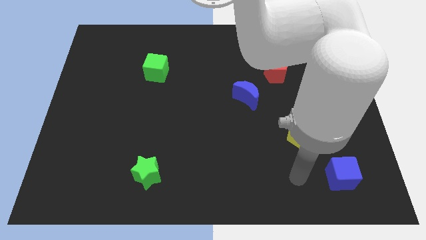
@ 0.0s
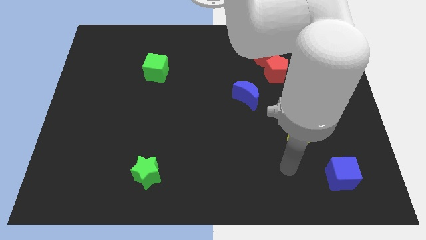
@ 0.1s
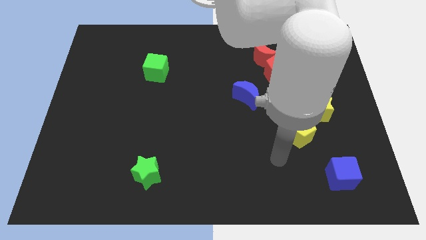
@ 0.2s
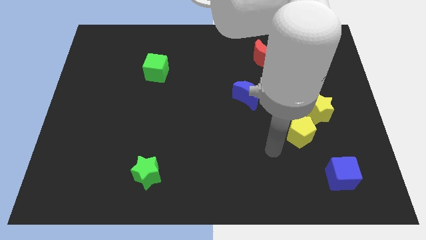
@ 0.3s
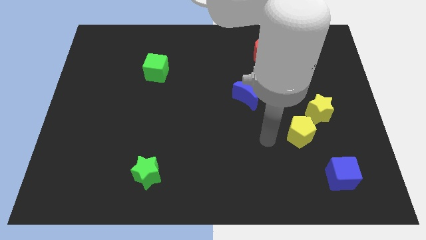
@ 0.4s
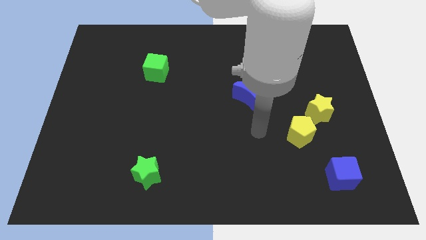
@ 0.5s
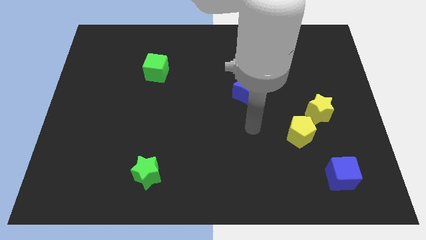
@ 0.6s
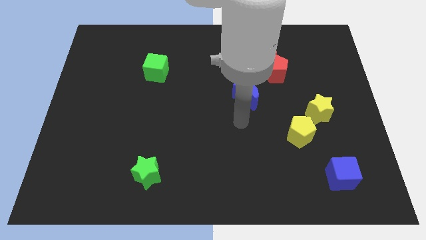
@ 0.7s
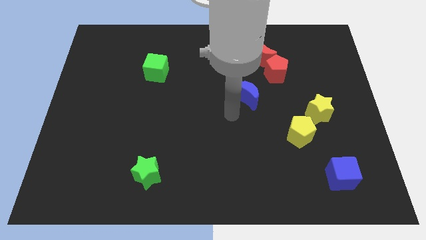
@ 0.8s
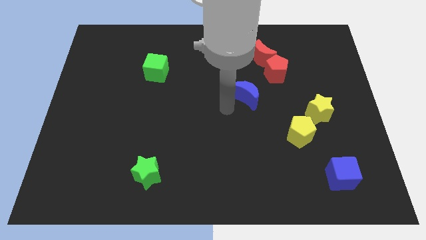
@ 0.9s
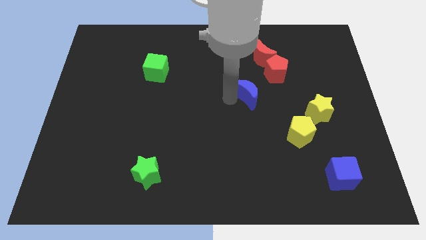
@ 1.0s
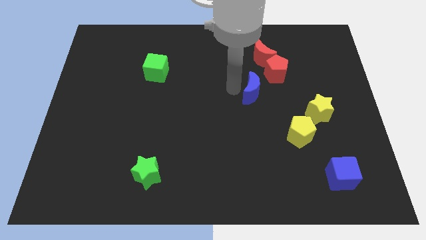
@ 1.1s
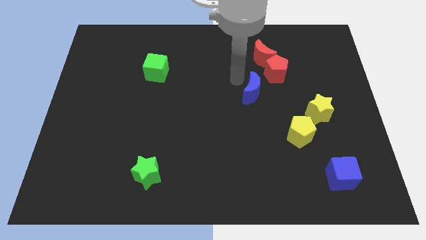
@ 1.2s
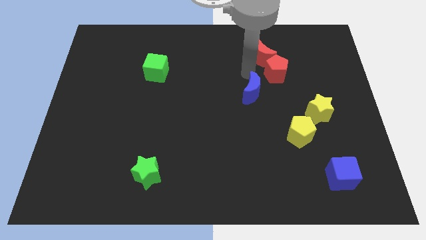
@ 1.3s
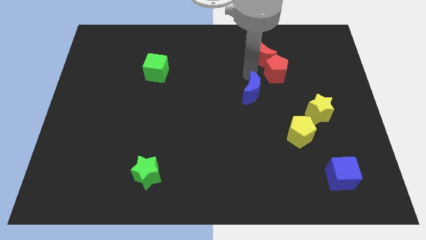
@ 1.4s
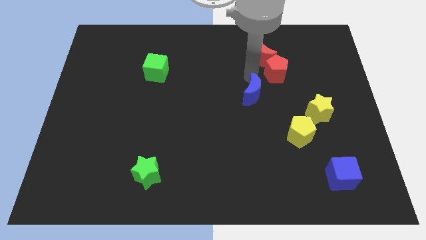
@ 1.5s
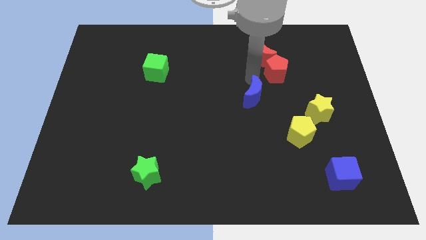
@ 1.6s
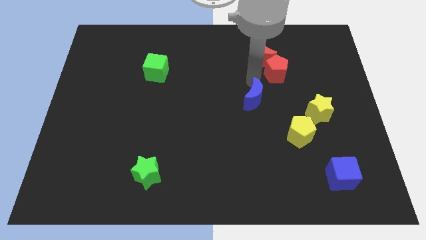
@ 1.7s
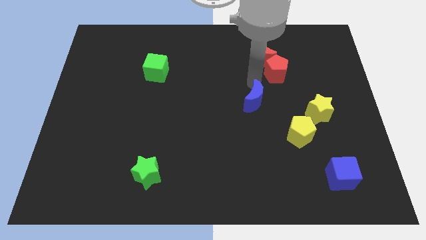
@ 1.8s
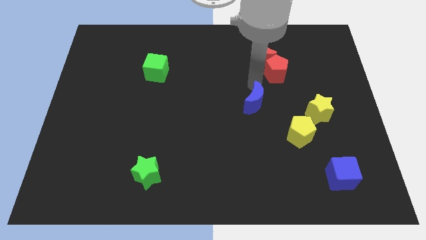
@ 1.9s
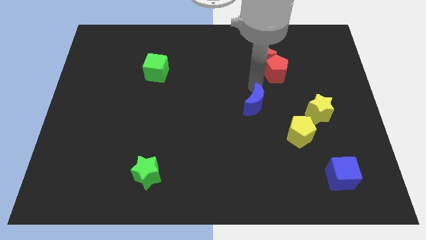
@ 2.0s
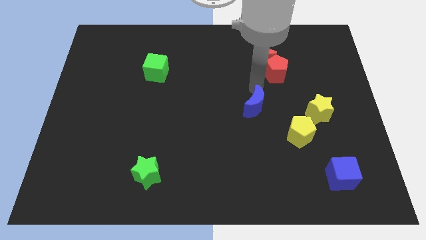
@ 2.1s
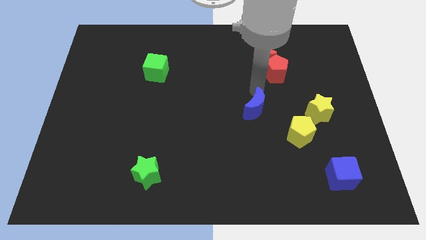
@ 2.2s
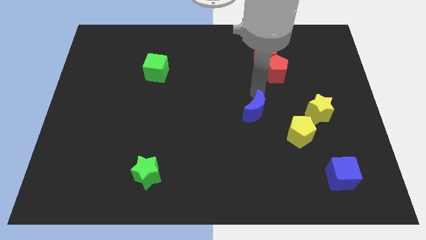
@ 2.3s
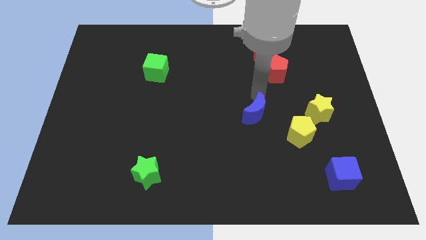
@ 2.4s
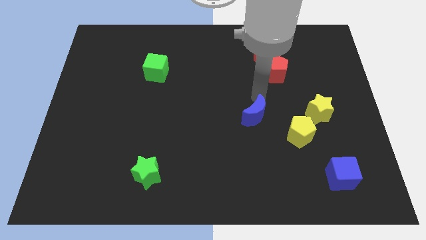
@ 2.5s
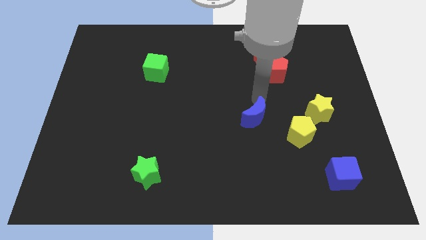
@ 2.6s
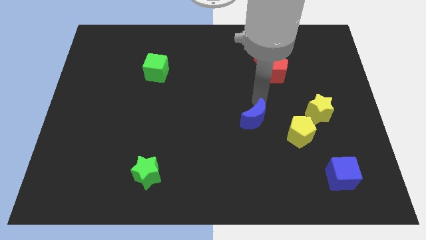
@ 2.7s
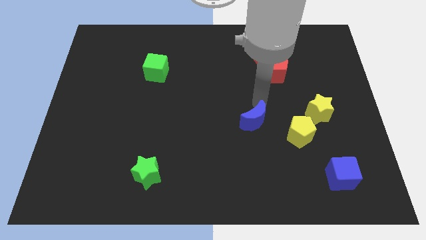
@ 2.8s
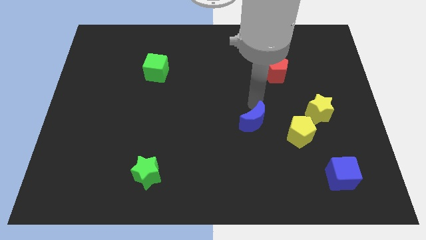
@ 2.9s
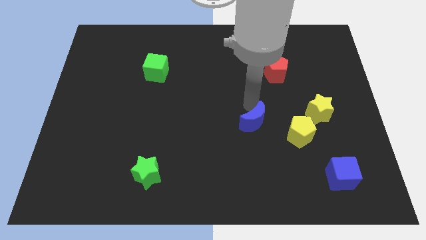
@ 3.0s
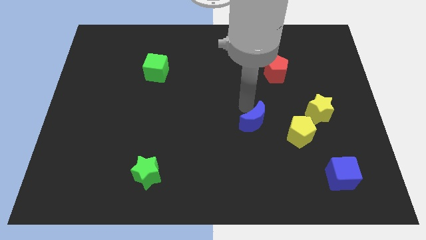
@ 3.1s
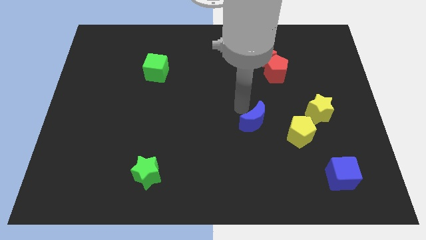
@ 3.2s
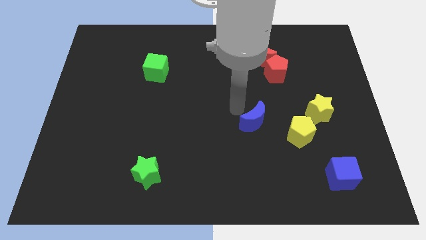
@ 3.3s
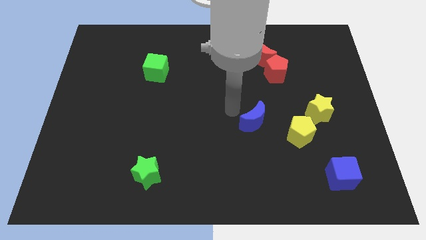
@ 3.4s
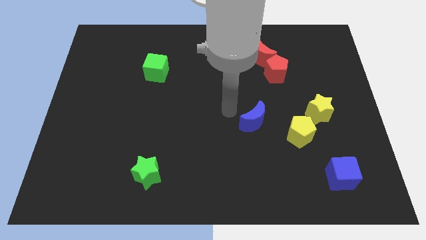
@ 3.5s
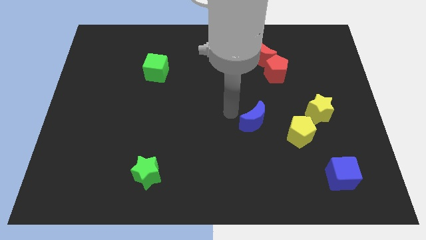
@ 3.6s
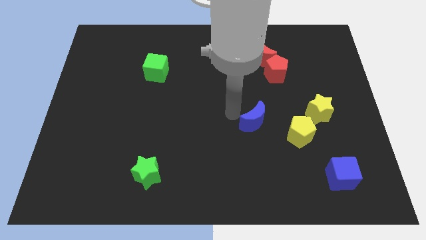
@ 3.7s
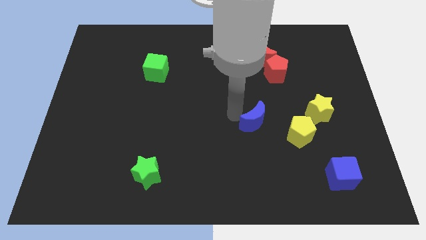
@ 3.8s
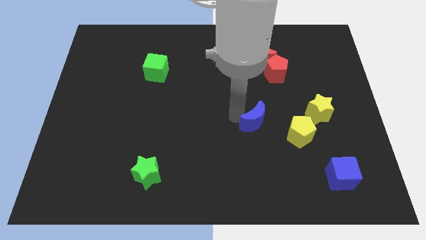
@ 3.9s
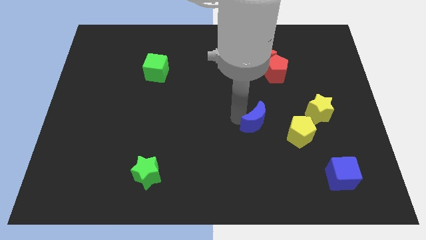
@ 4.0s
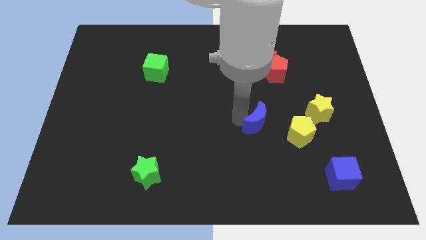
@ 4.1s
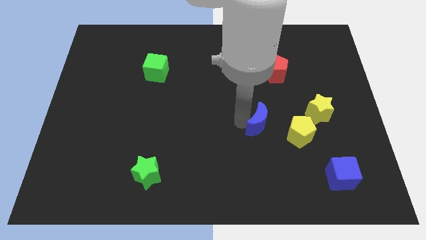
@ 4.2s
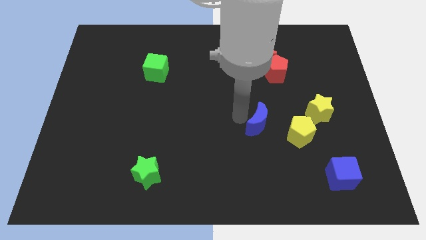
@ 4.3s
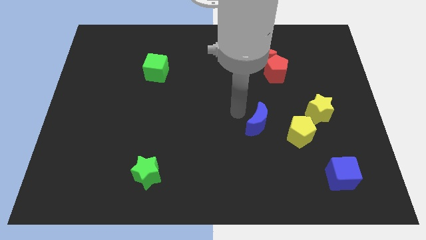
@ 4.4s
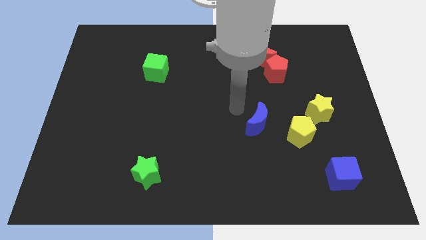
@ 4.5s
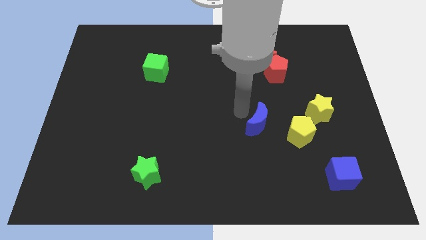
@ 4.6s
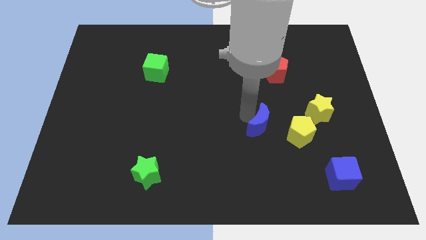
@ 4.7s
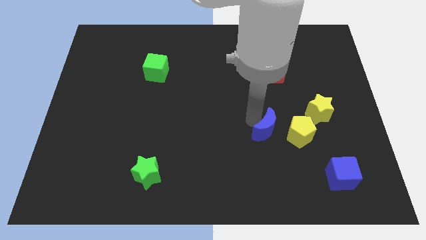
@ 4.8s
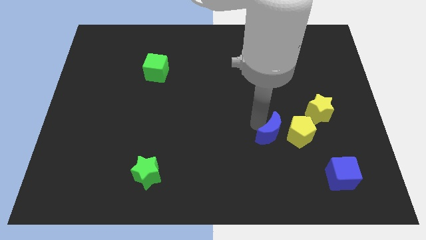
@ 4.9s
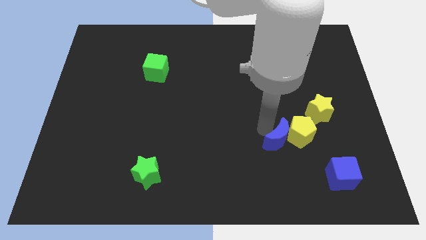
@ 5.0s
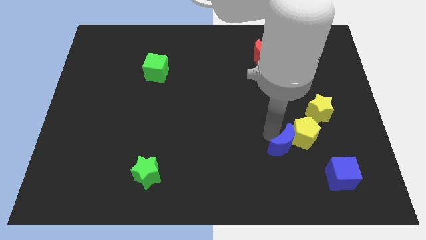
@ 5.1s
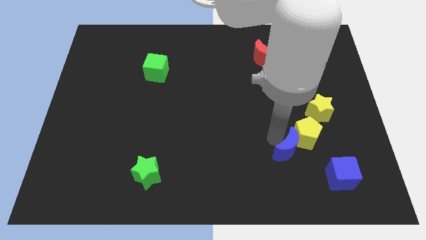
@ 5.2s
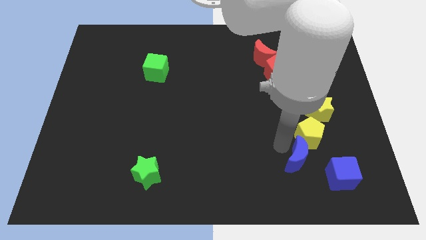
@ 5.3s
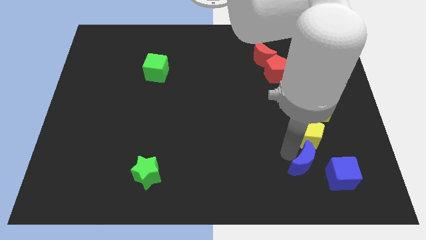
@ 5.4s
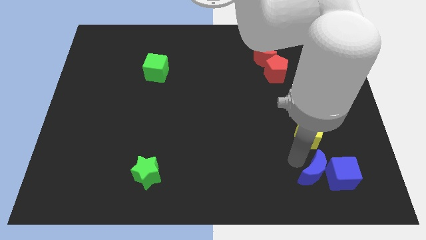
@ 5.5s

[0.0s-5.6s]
put the blue moon next to the blue cube

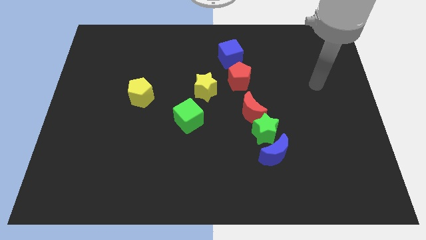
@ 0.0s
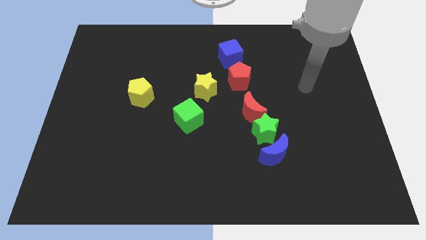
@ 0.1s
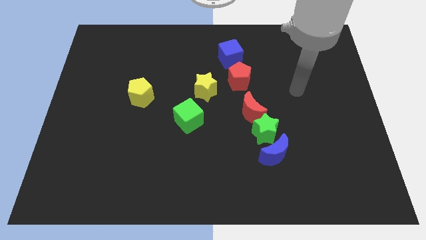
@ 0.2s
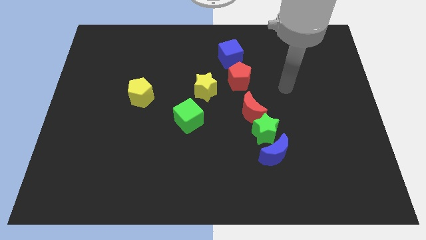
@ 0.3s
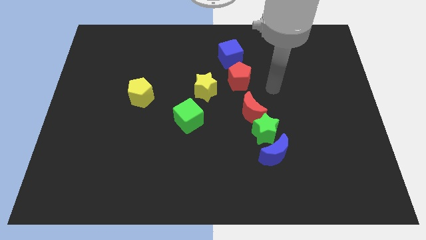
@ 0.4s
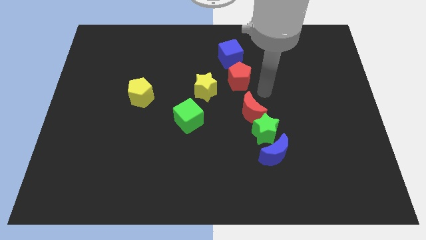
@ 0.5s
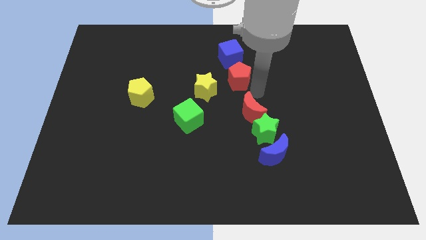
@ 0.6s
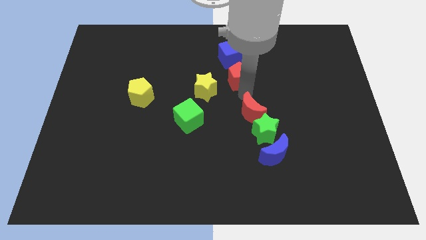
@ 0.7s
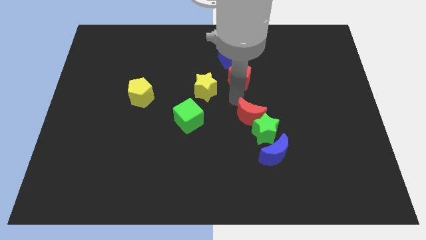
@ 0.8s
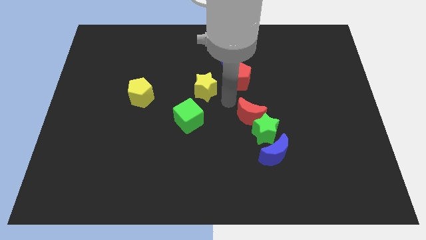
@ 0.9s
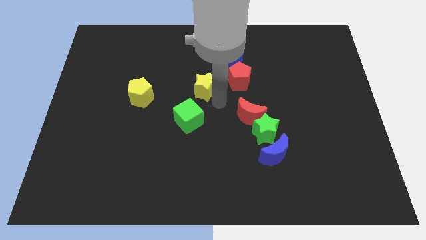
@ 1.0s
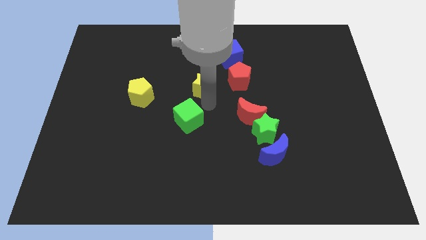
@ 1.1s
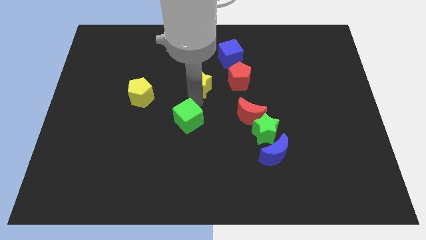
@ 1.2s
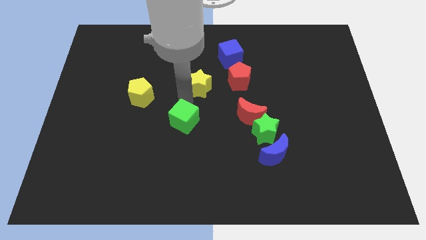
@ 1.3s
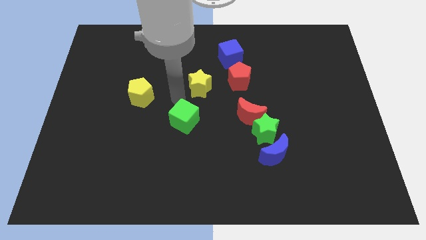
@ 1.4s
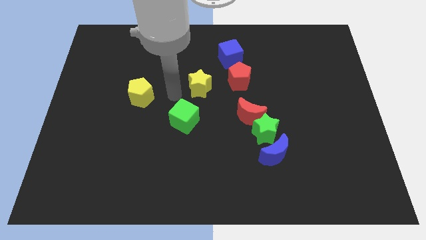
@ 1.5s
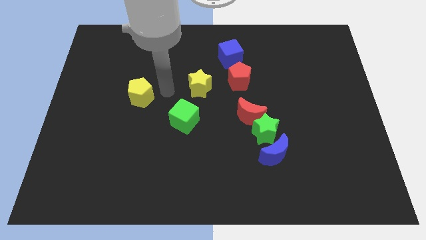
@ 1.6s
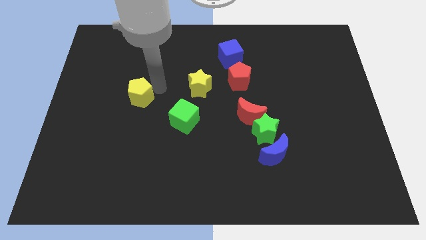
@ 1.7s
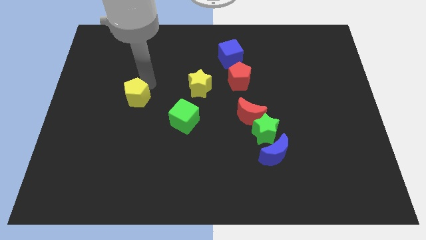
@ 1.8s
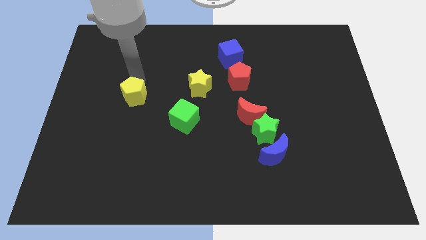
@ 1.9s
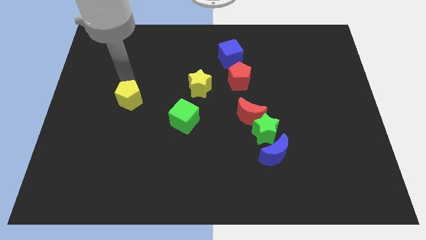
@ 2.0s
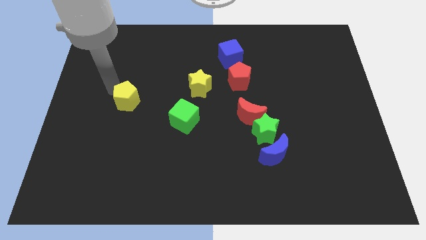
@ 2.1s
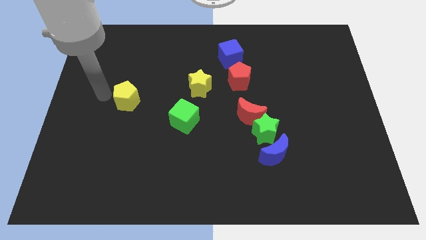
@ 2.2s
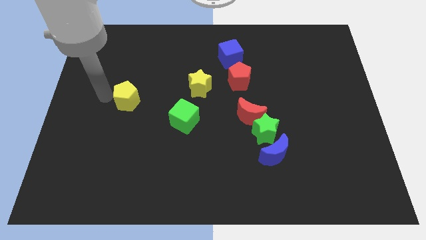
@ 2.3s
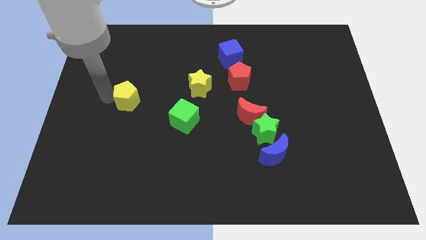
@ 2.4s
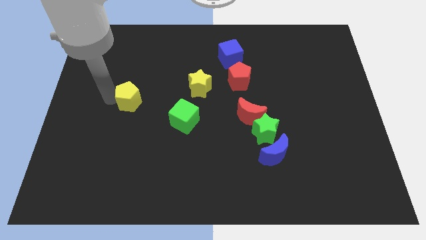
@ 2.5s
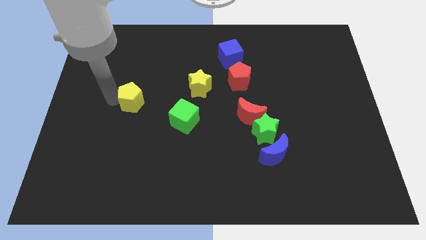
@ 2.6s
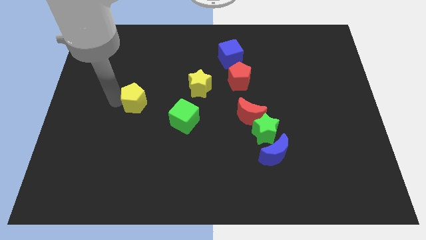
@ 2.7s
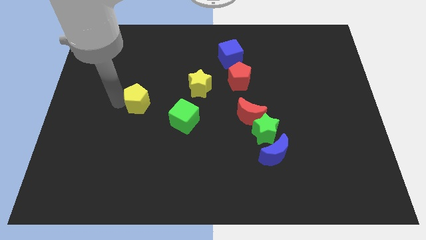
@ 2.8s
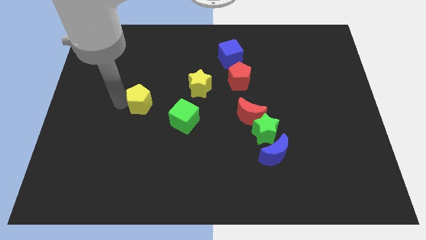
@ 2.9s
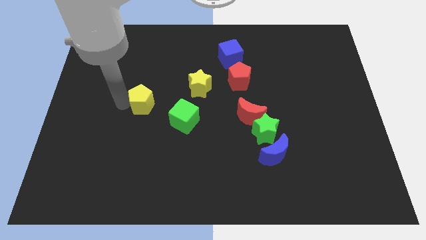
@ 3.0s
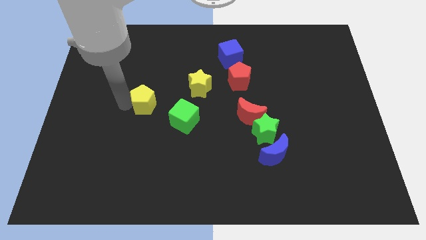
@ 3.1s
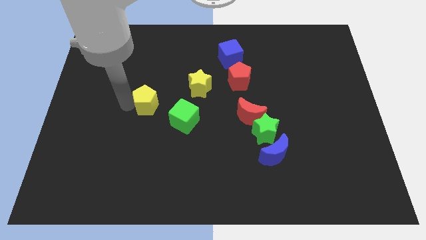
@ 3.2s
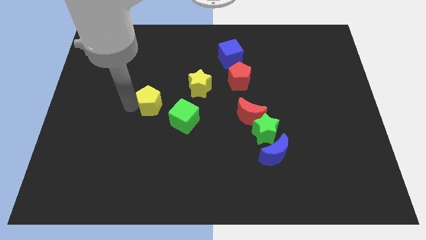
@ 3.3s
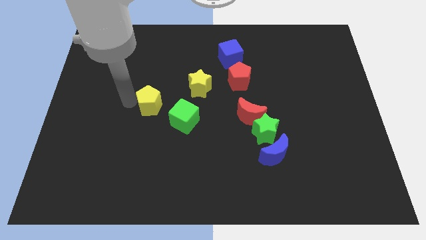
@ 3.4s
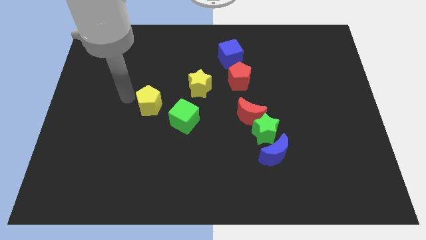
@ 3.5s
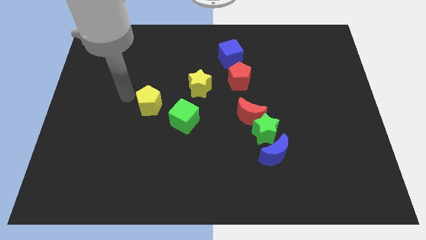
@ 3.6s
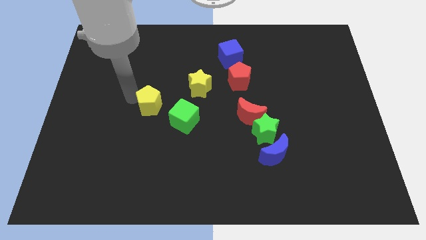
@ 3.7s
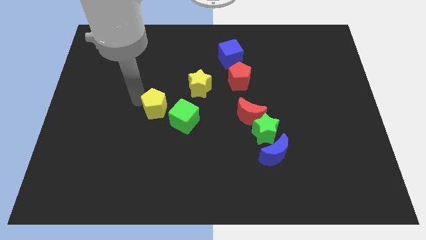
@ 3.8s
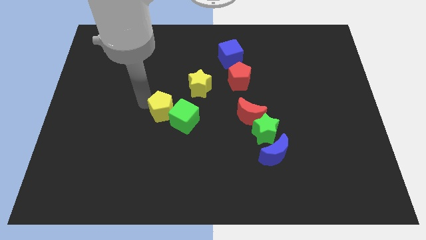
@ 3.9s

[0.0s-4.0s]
slide the yellow pentagon towards the green cube
